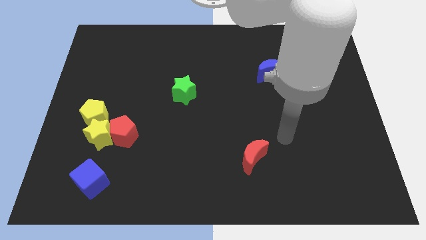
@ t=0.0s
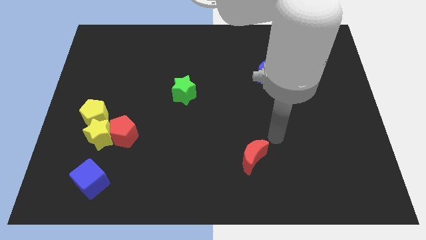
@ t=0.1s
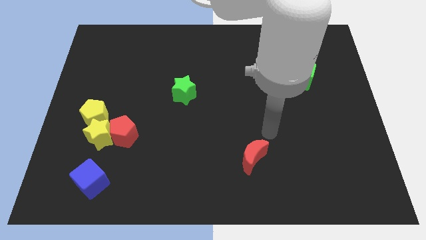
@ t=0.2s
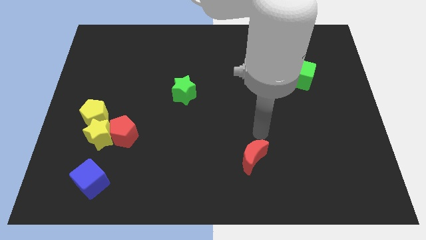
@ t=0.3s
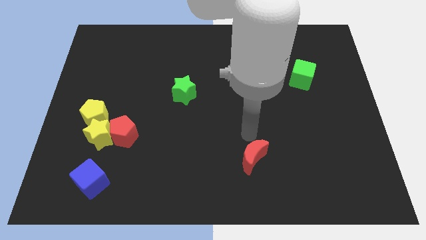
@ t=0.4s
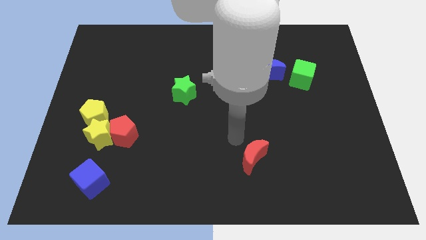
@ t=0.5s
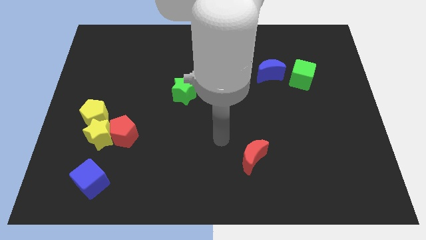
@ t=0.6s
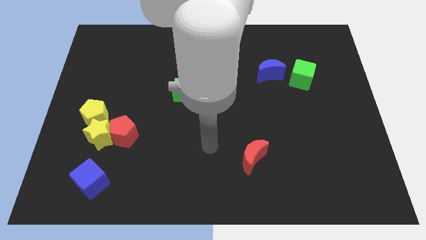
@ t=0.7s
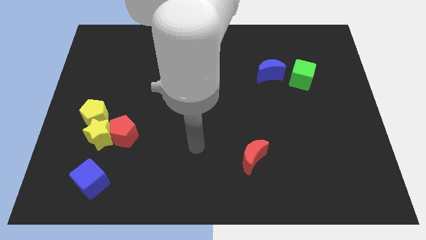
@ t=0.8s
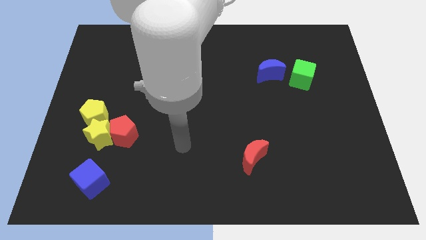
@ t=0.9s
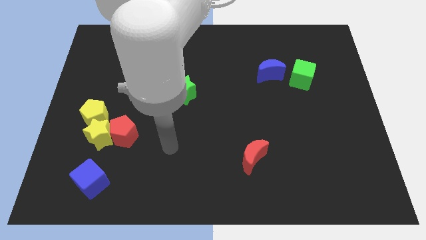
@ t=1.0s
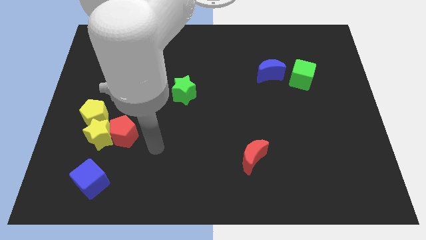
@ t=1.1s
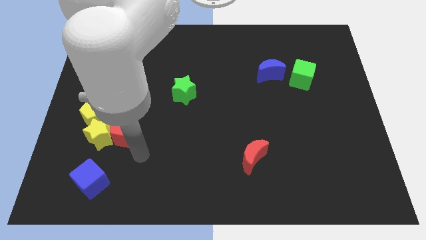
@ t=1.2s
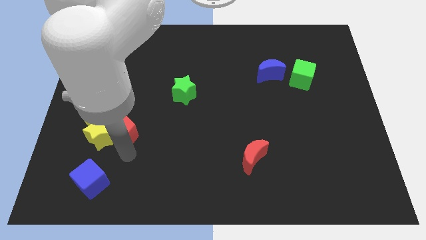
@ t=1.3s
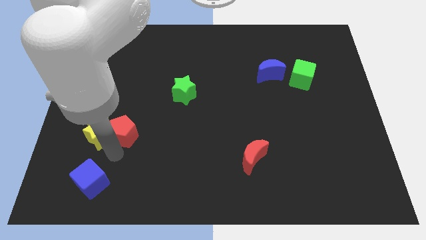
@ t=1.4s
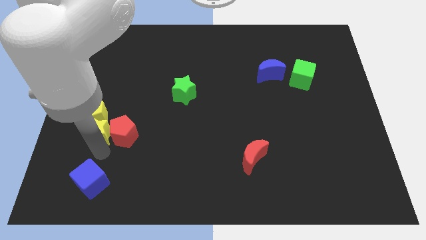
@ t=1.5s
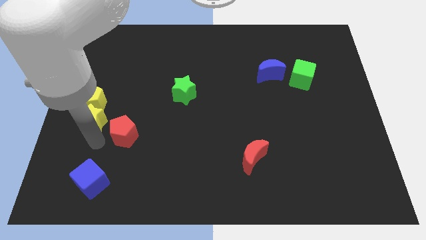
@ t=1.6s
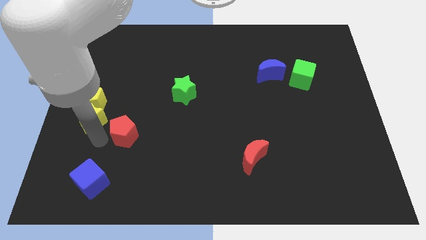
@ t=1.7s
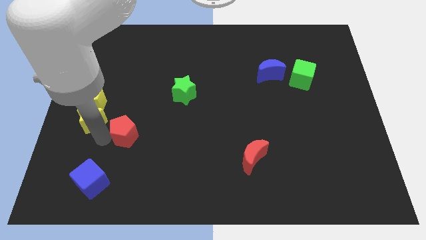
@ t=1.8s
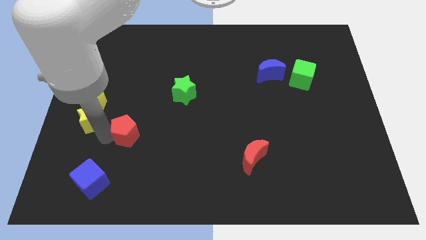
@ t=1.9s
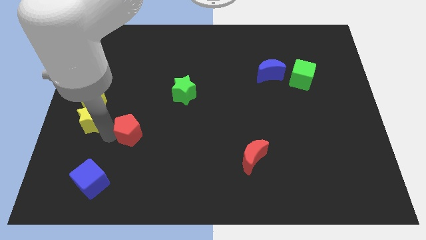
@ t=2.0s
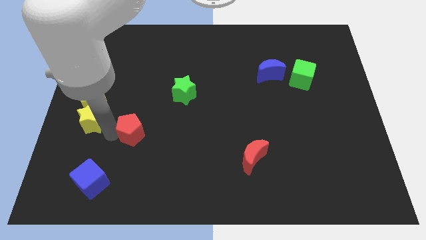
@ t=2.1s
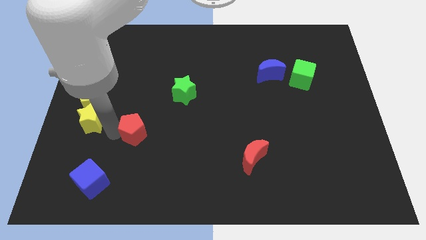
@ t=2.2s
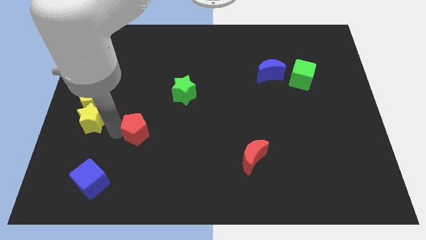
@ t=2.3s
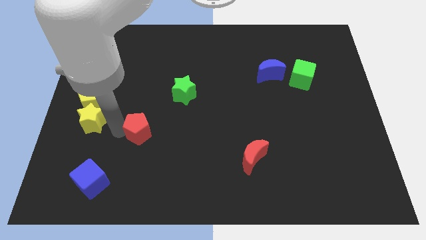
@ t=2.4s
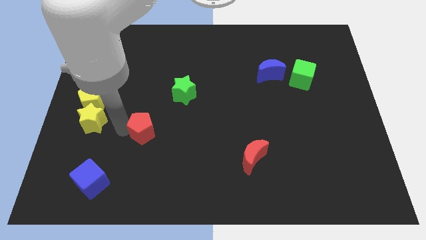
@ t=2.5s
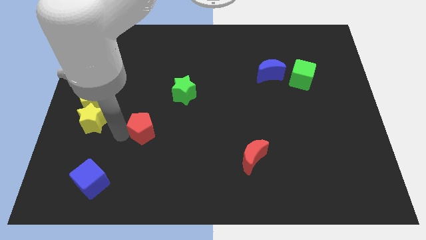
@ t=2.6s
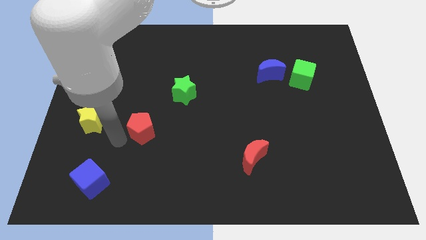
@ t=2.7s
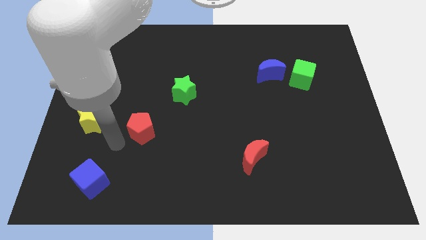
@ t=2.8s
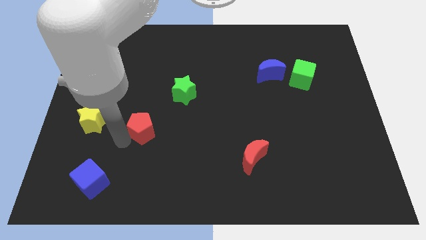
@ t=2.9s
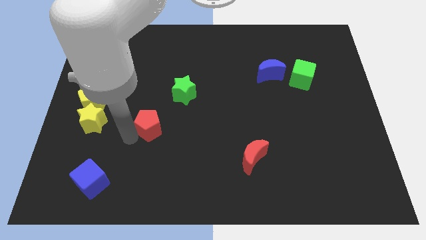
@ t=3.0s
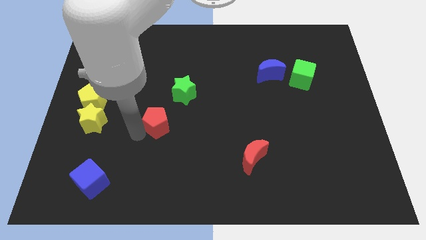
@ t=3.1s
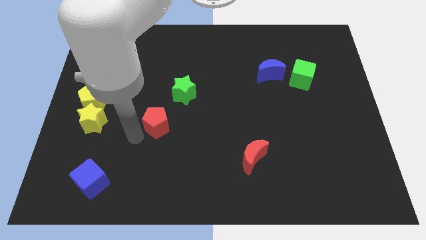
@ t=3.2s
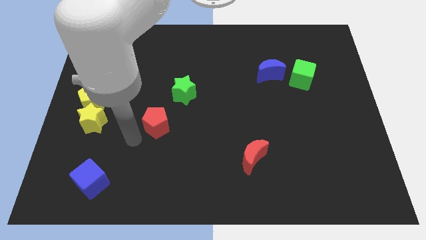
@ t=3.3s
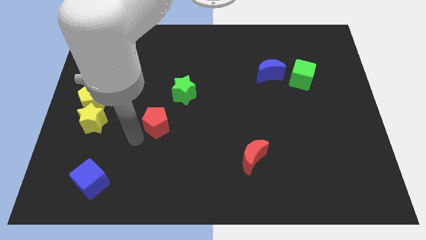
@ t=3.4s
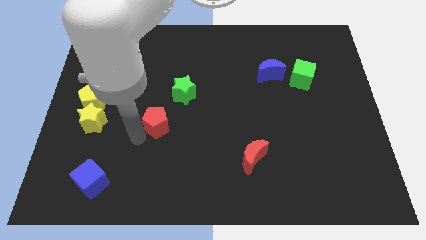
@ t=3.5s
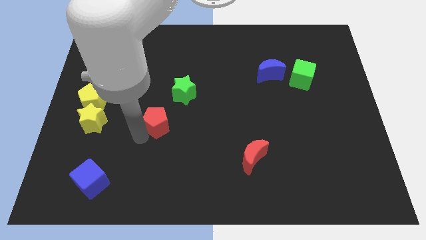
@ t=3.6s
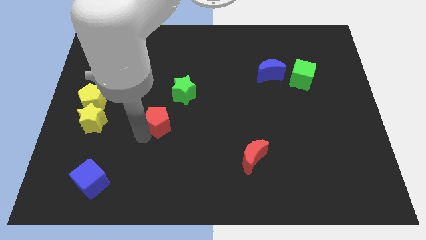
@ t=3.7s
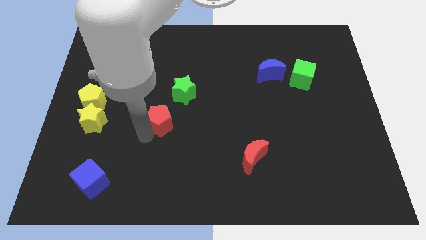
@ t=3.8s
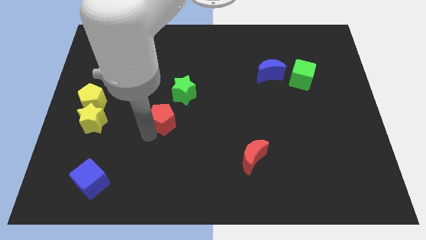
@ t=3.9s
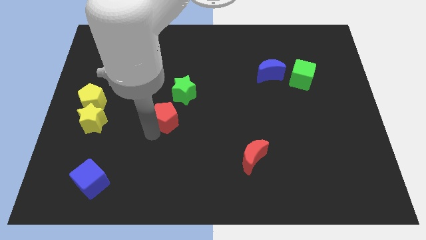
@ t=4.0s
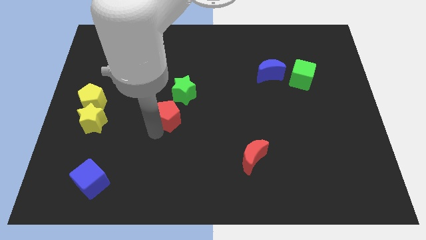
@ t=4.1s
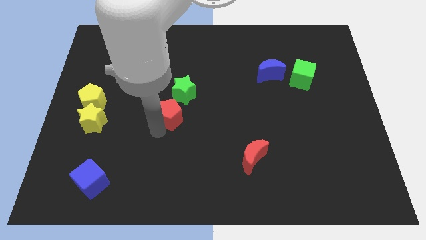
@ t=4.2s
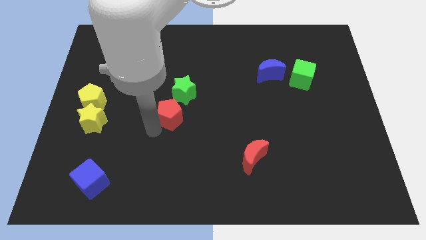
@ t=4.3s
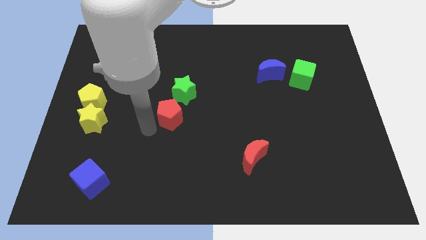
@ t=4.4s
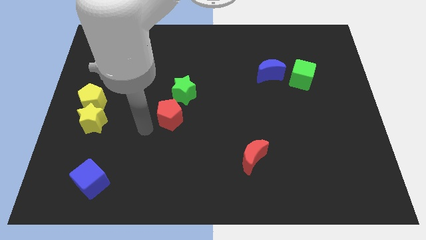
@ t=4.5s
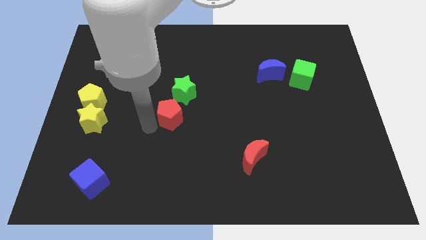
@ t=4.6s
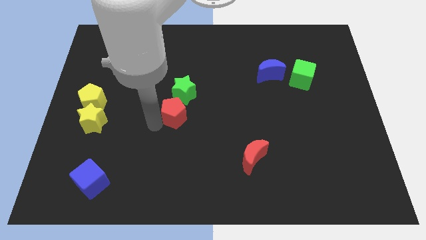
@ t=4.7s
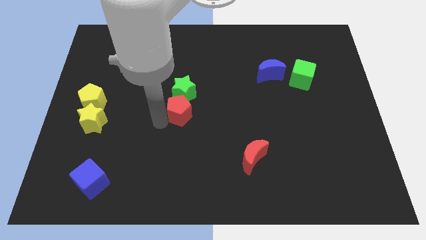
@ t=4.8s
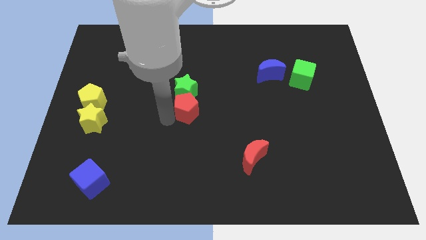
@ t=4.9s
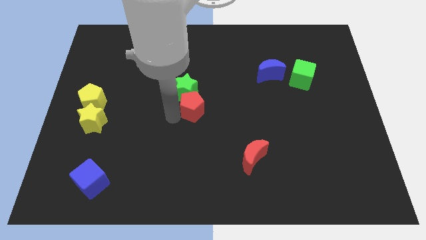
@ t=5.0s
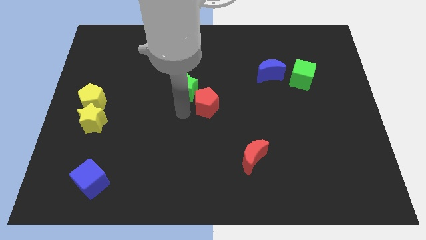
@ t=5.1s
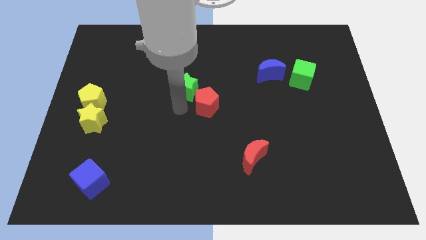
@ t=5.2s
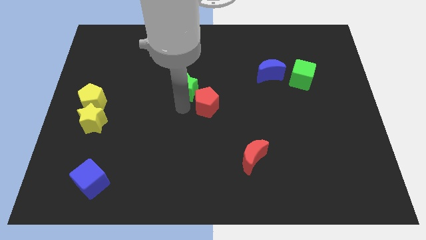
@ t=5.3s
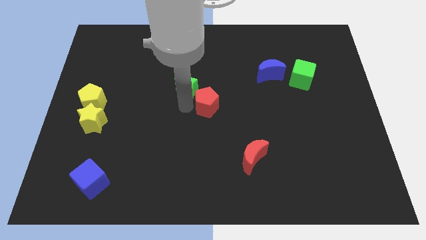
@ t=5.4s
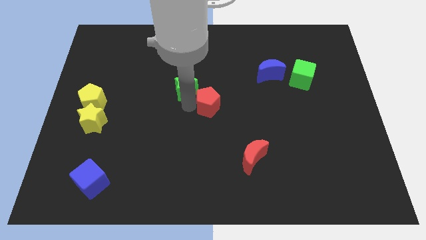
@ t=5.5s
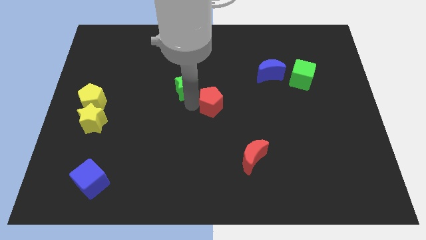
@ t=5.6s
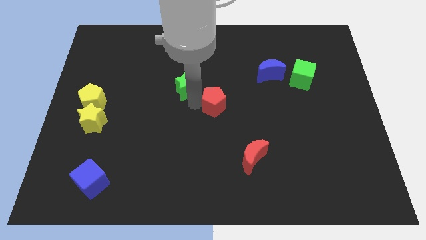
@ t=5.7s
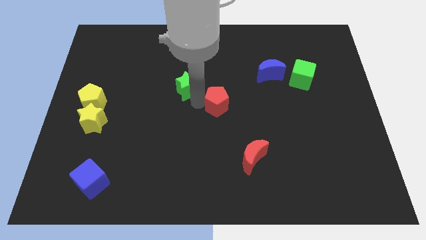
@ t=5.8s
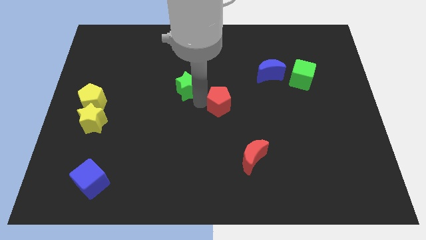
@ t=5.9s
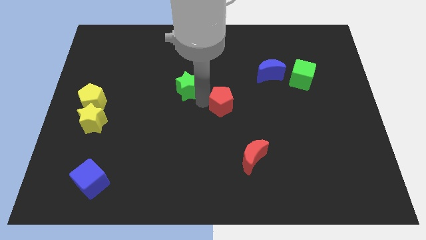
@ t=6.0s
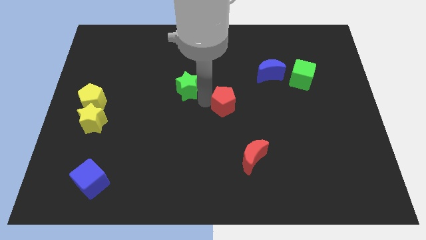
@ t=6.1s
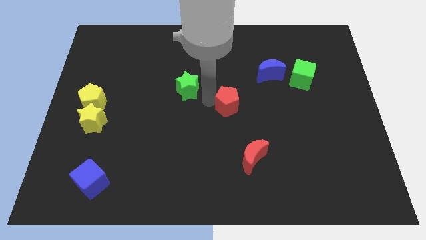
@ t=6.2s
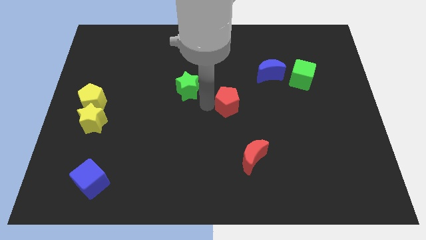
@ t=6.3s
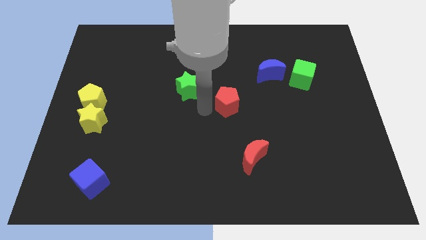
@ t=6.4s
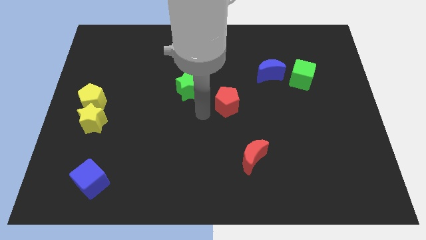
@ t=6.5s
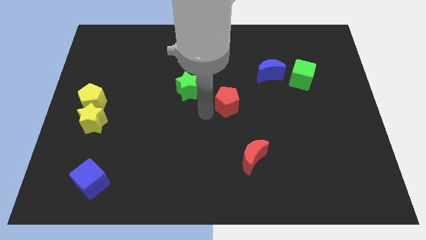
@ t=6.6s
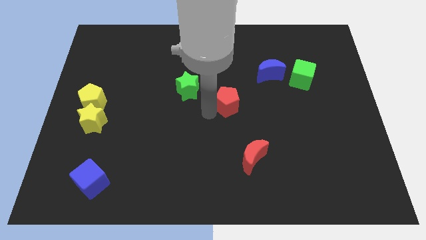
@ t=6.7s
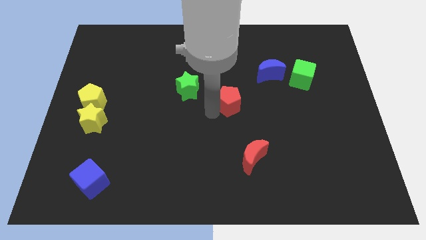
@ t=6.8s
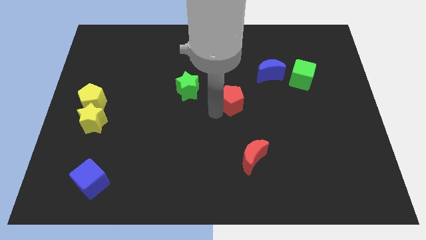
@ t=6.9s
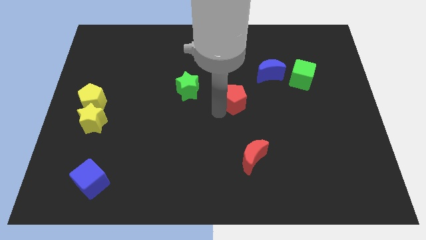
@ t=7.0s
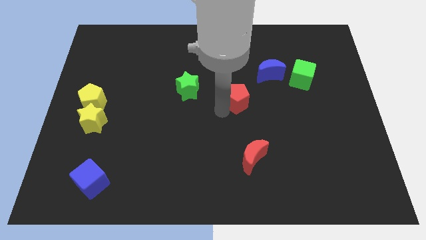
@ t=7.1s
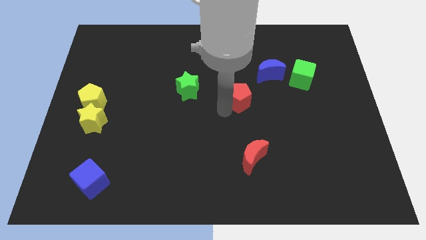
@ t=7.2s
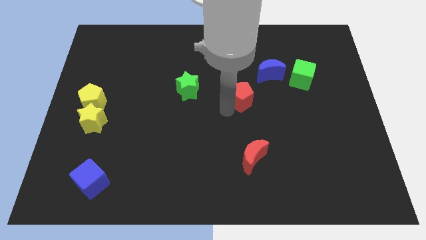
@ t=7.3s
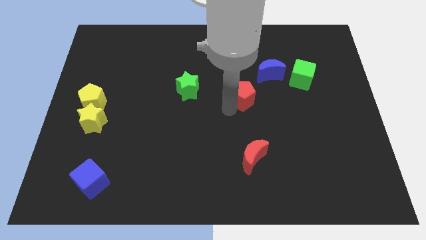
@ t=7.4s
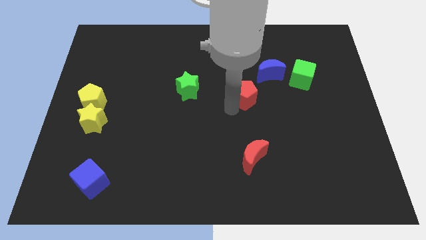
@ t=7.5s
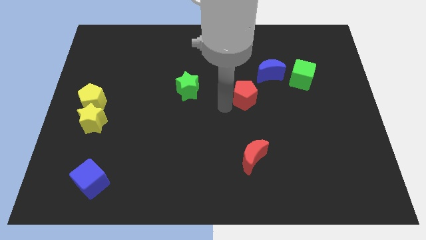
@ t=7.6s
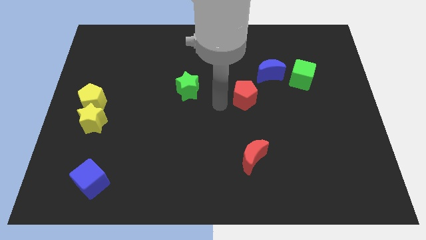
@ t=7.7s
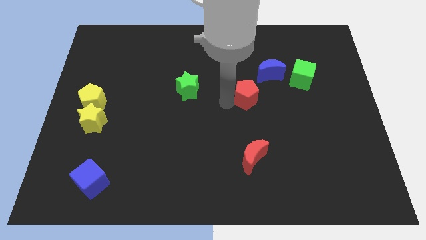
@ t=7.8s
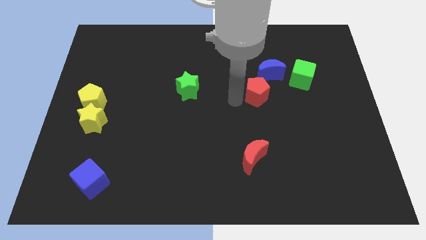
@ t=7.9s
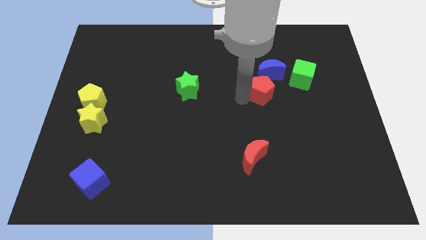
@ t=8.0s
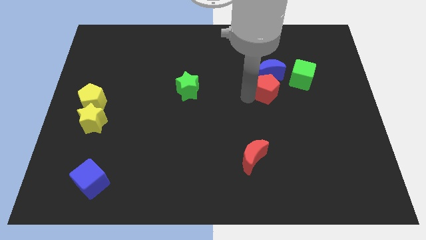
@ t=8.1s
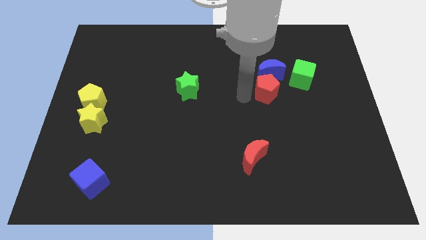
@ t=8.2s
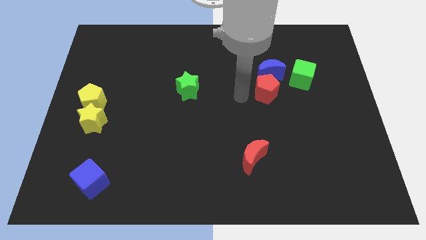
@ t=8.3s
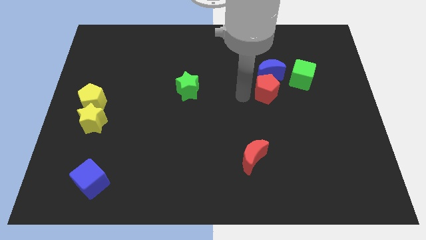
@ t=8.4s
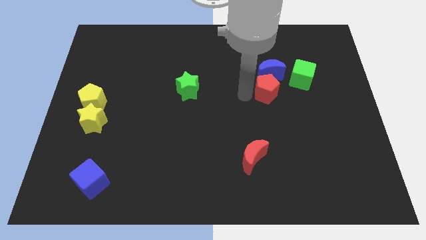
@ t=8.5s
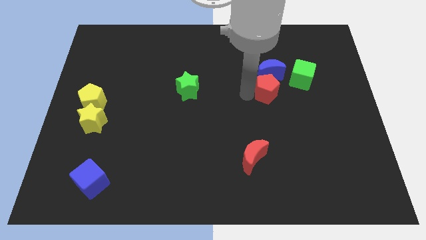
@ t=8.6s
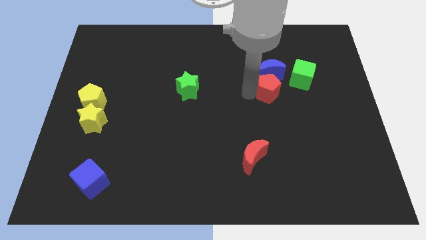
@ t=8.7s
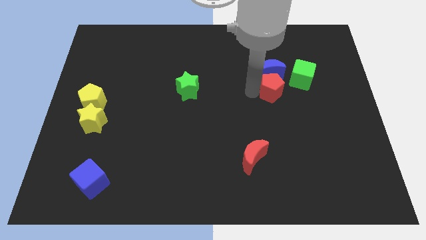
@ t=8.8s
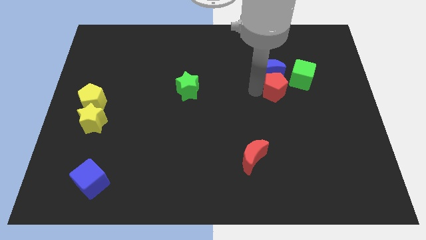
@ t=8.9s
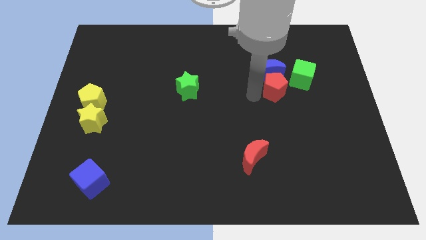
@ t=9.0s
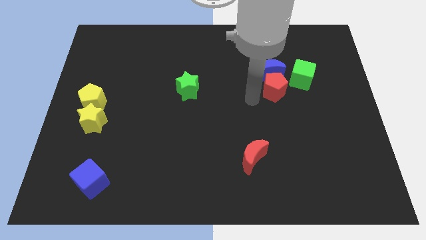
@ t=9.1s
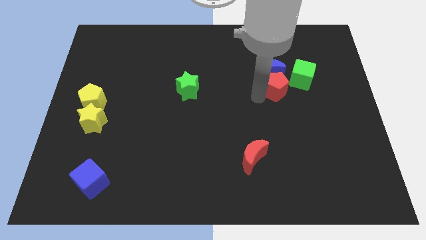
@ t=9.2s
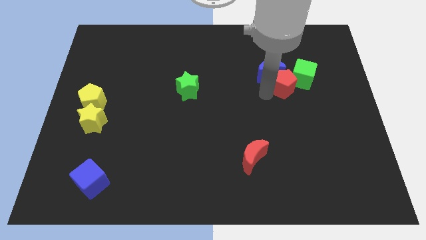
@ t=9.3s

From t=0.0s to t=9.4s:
put the red pentagon to the green cube
